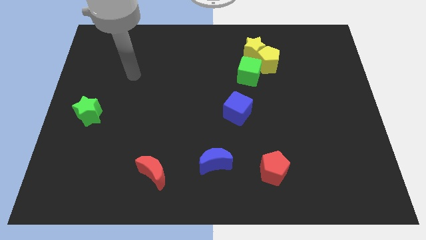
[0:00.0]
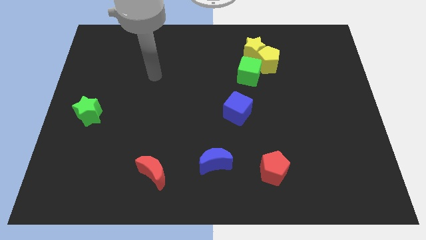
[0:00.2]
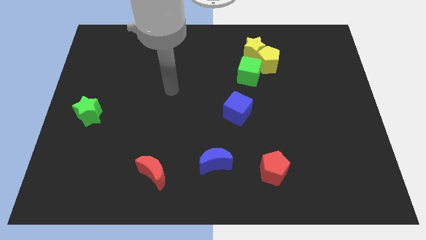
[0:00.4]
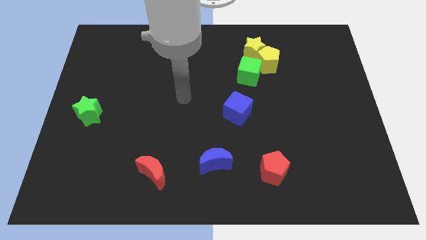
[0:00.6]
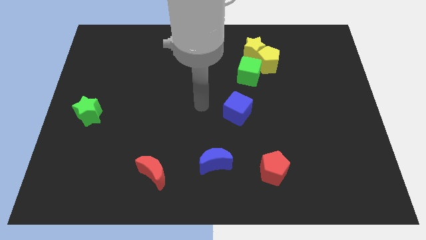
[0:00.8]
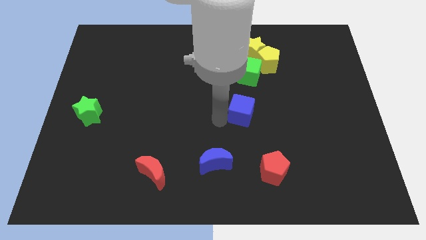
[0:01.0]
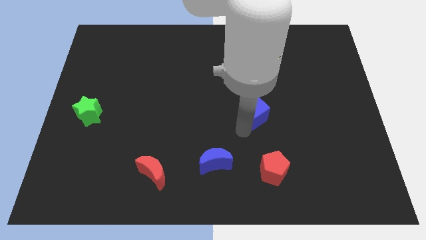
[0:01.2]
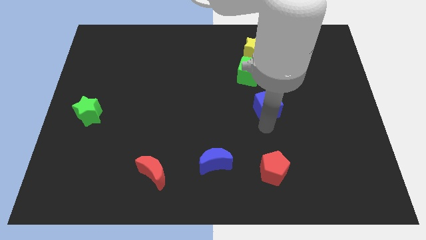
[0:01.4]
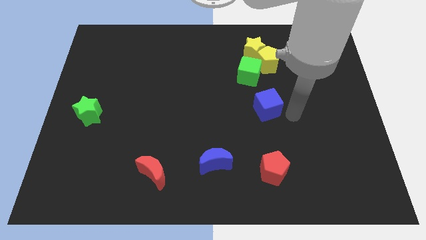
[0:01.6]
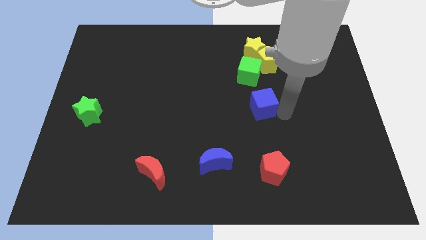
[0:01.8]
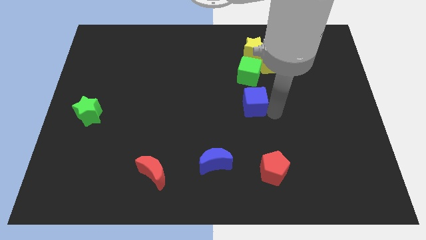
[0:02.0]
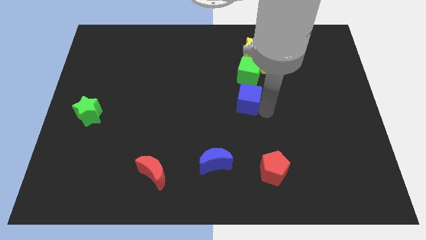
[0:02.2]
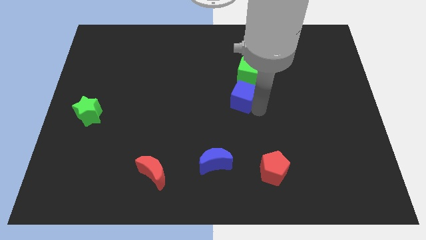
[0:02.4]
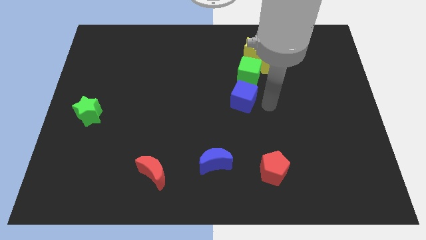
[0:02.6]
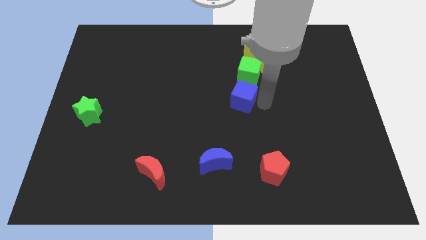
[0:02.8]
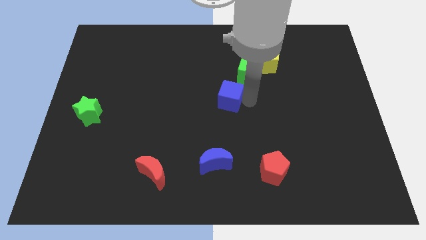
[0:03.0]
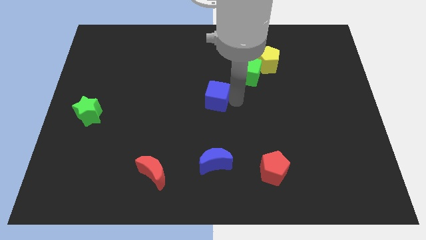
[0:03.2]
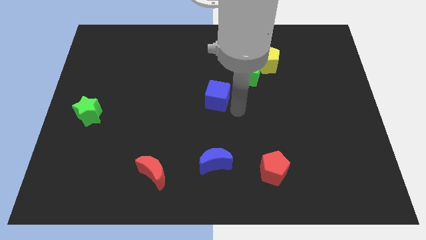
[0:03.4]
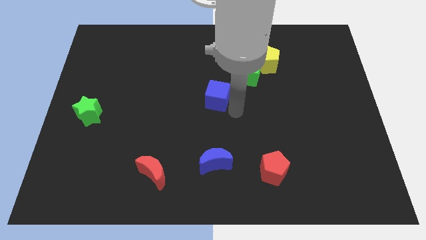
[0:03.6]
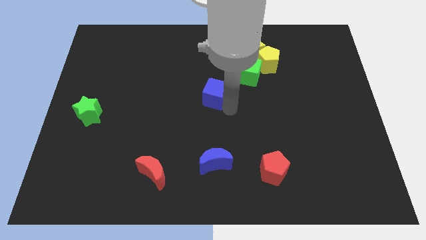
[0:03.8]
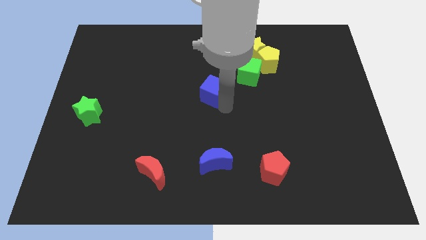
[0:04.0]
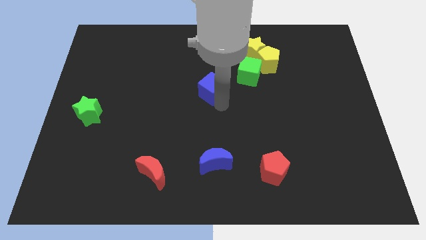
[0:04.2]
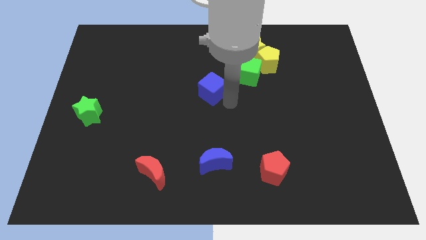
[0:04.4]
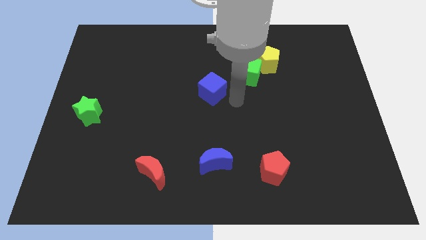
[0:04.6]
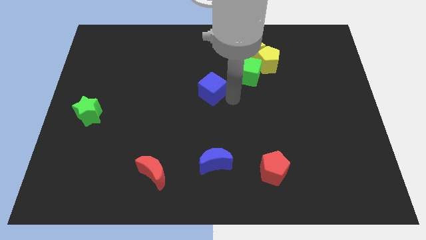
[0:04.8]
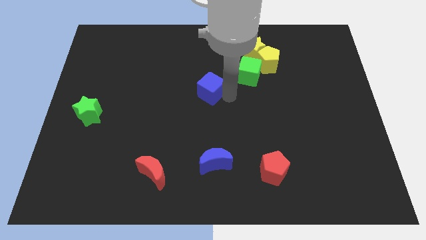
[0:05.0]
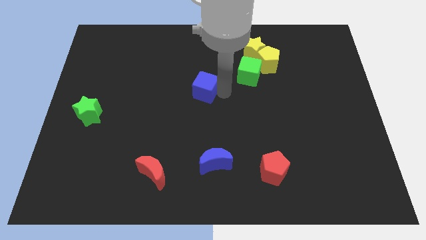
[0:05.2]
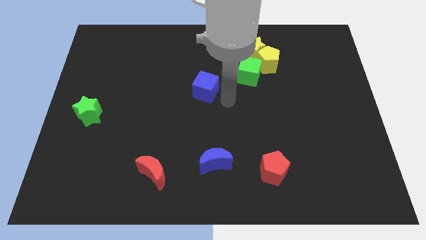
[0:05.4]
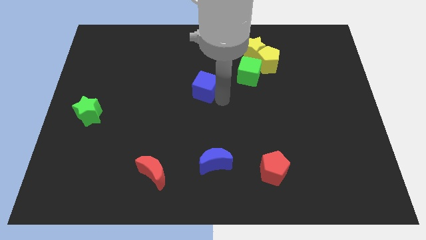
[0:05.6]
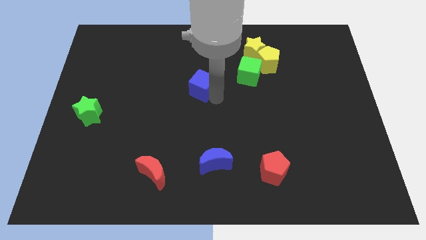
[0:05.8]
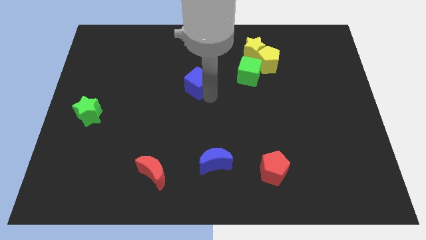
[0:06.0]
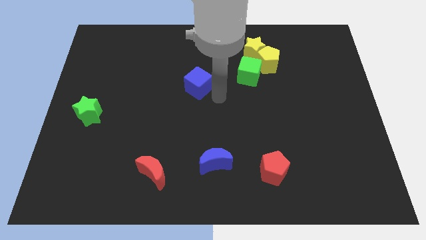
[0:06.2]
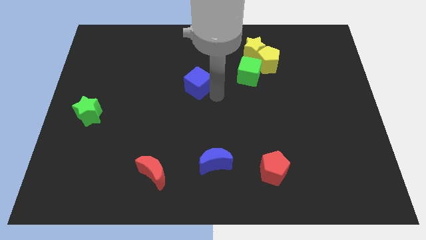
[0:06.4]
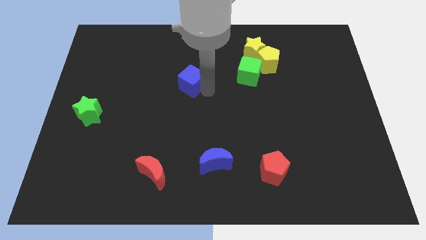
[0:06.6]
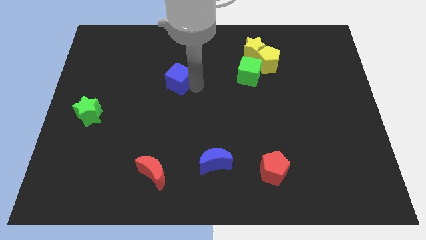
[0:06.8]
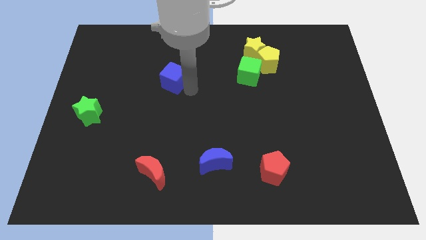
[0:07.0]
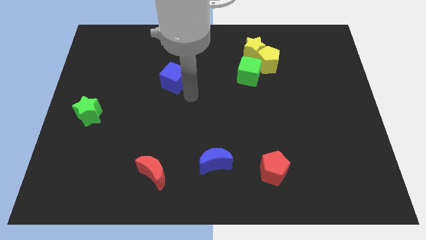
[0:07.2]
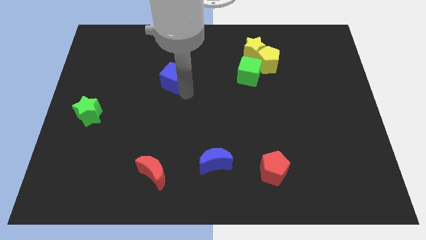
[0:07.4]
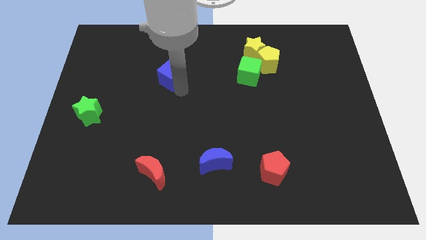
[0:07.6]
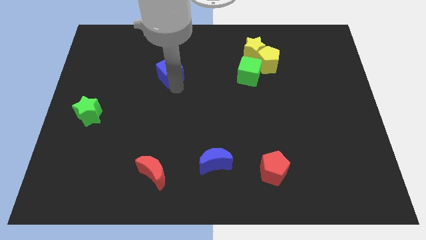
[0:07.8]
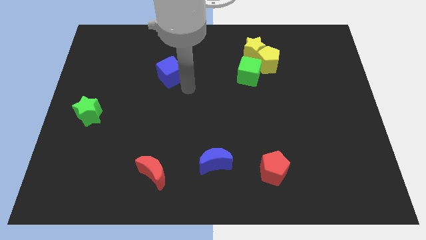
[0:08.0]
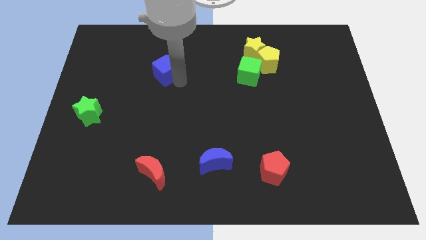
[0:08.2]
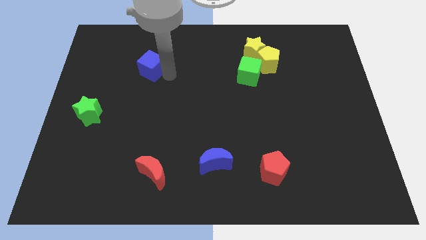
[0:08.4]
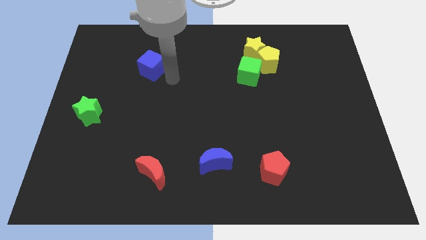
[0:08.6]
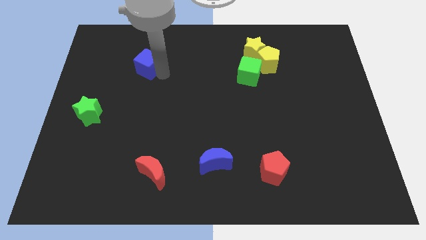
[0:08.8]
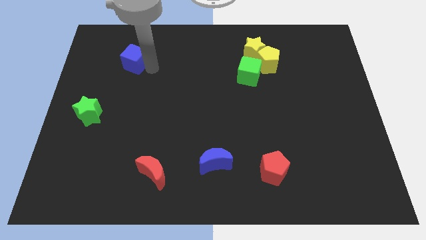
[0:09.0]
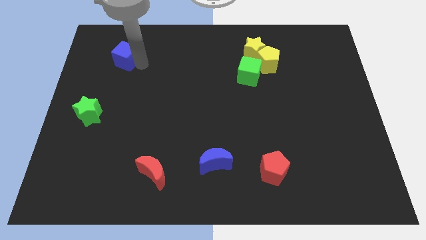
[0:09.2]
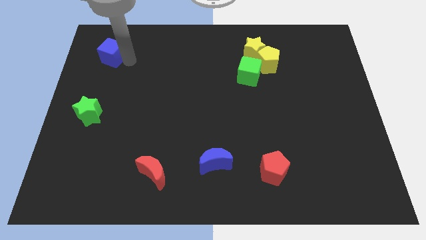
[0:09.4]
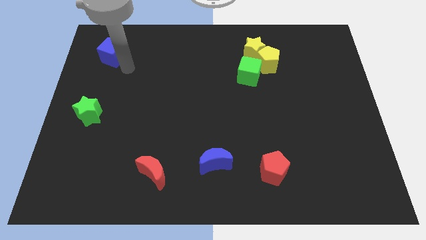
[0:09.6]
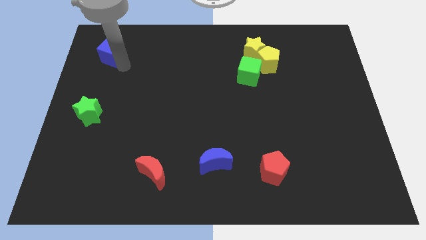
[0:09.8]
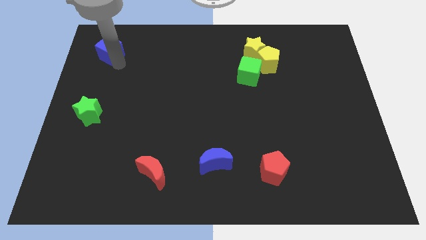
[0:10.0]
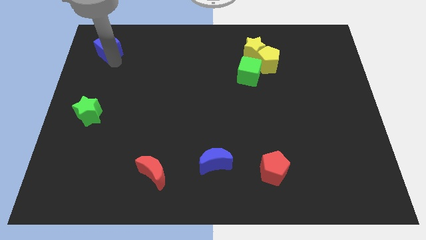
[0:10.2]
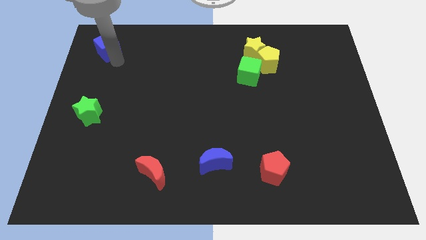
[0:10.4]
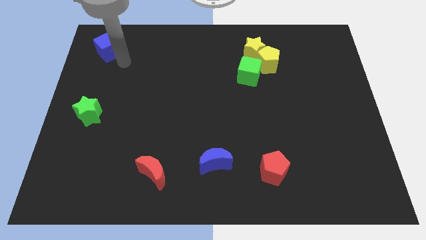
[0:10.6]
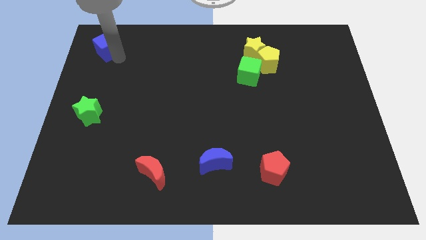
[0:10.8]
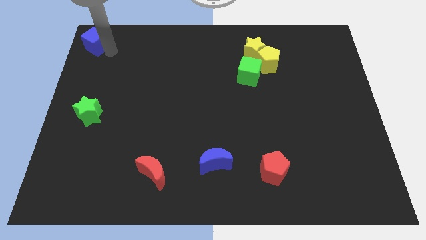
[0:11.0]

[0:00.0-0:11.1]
move the blue cube to the top left of the board

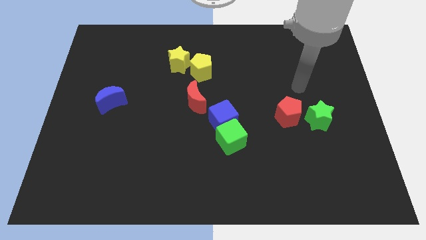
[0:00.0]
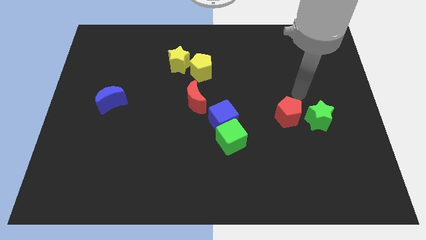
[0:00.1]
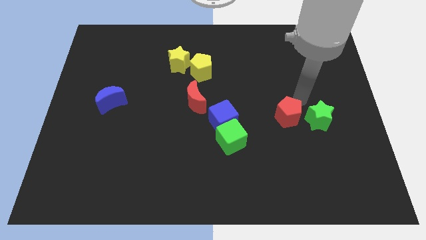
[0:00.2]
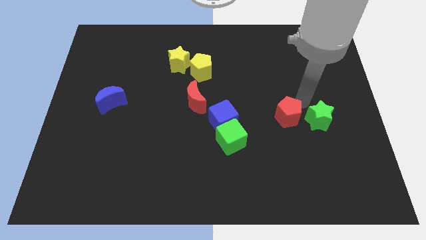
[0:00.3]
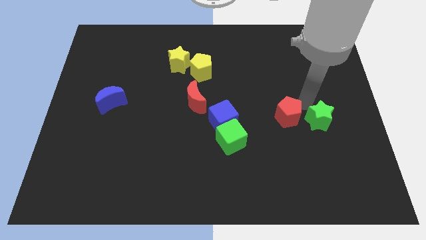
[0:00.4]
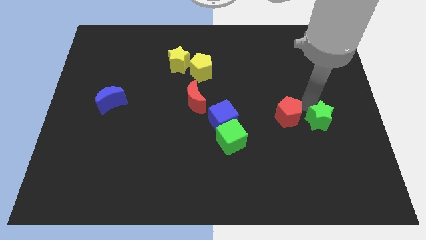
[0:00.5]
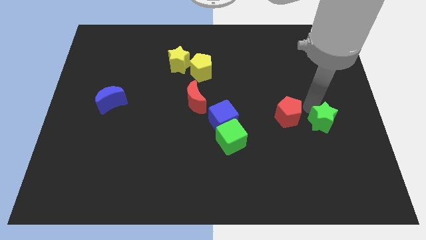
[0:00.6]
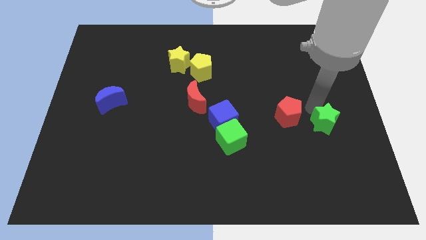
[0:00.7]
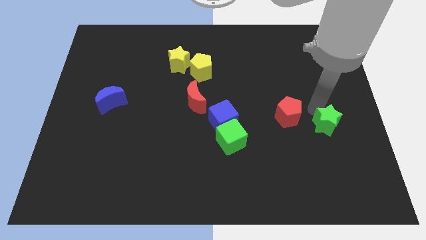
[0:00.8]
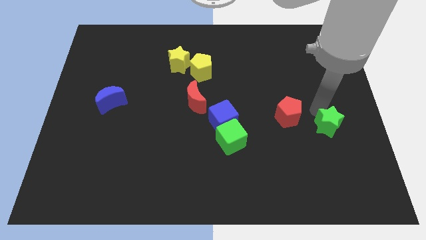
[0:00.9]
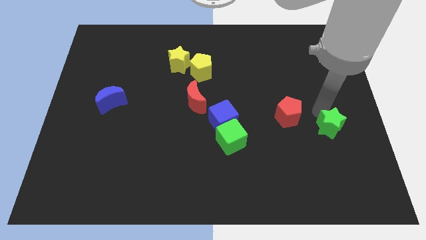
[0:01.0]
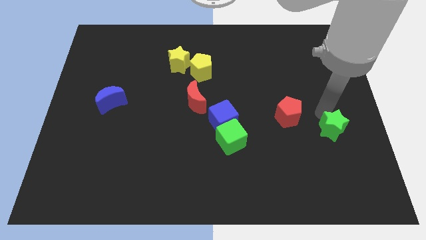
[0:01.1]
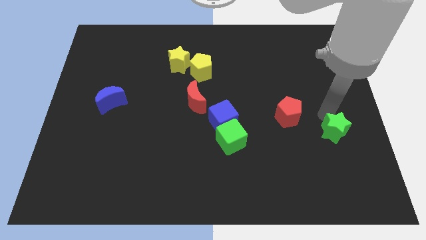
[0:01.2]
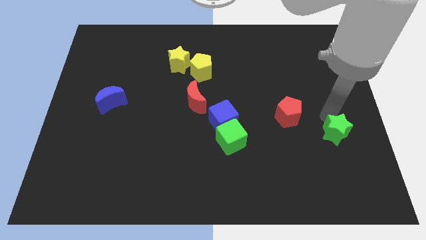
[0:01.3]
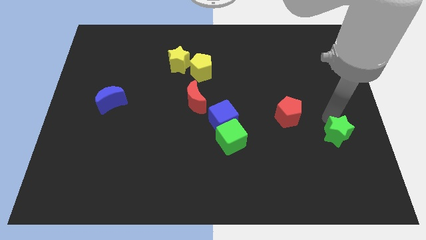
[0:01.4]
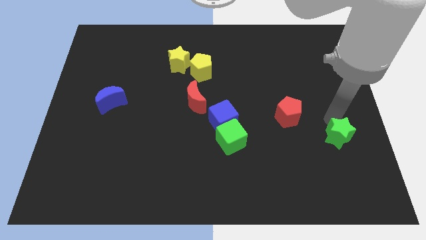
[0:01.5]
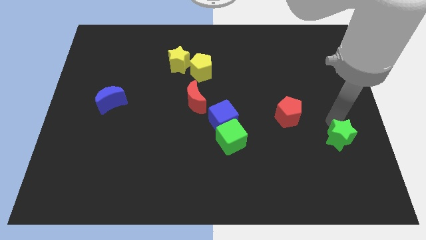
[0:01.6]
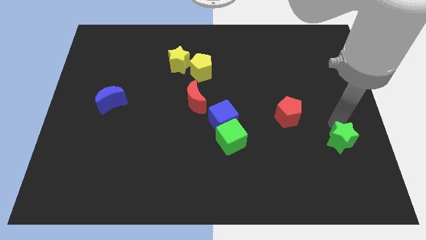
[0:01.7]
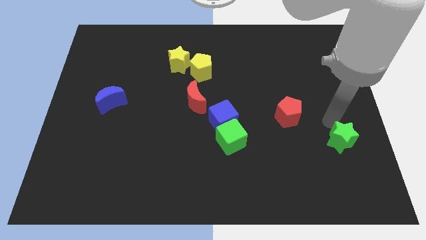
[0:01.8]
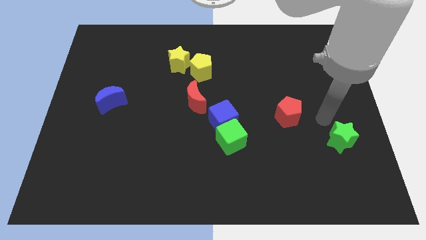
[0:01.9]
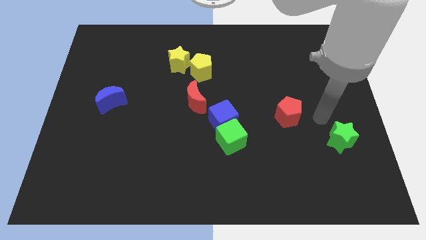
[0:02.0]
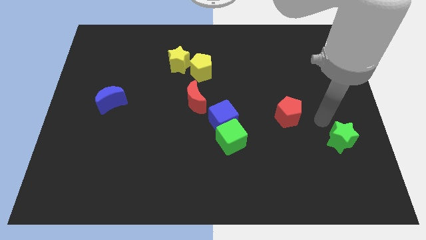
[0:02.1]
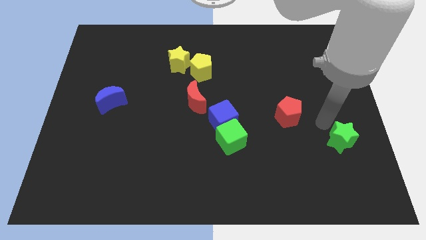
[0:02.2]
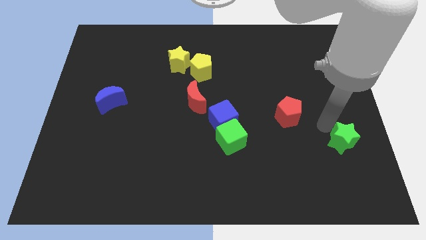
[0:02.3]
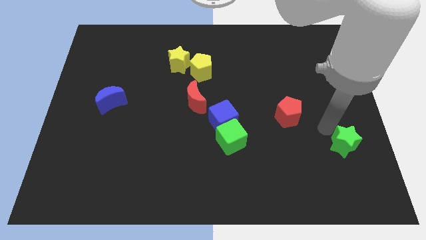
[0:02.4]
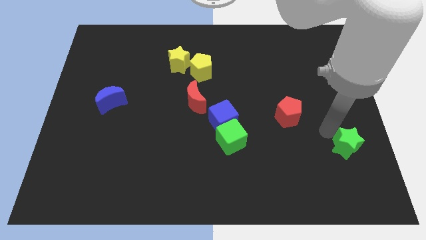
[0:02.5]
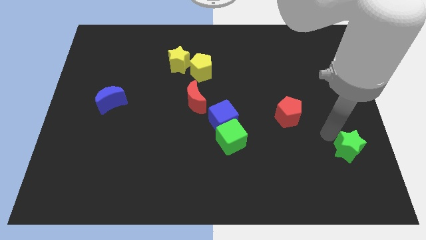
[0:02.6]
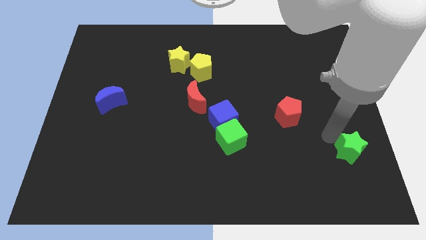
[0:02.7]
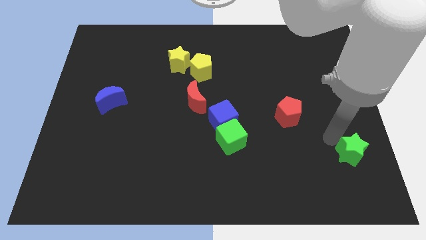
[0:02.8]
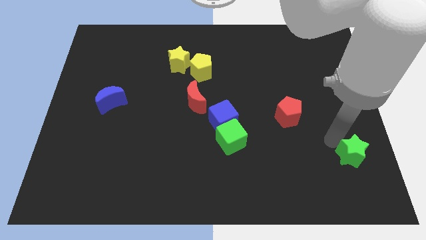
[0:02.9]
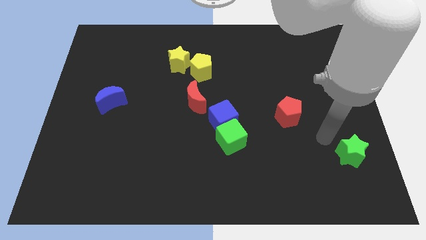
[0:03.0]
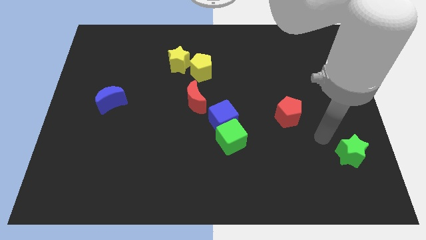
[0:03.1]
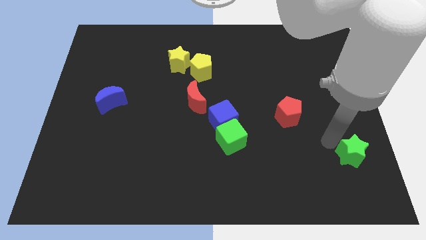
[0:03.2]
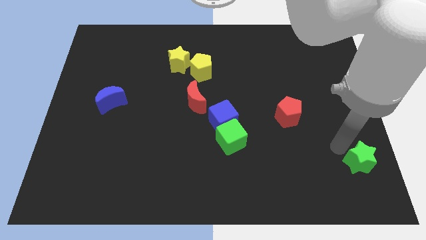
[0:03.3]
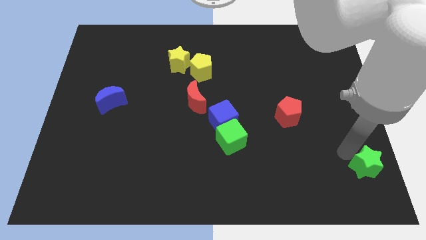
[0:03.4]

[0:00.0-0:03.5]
put the green star to the bottom right
